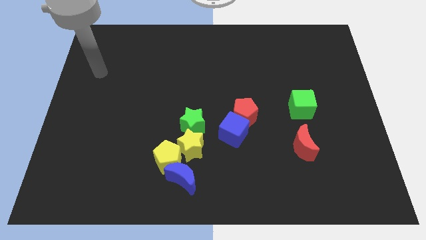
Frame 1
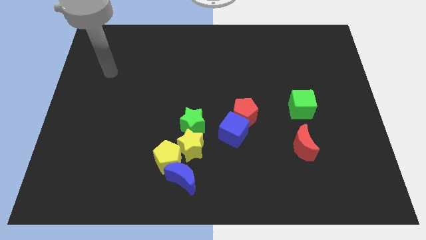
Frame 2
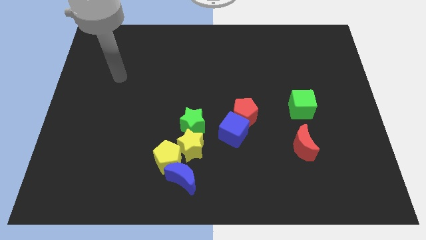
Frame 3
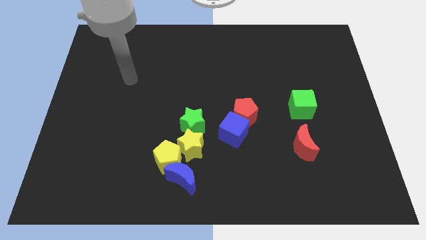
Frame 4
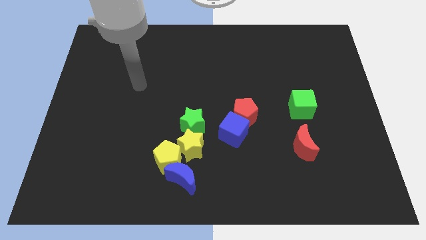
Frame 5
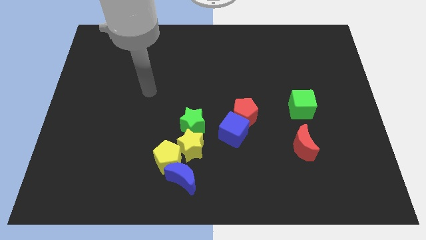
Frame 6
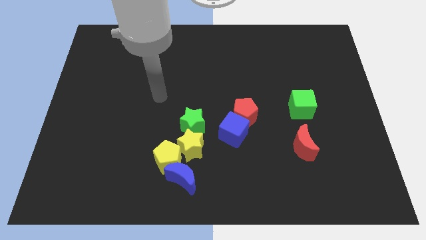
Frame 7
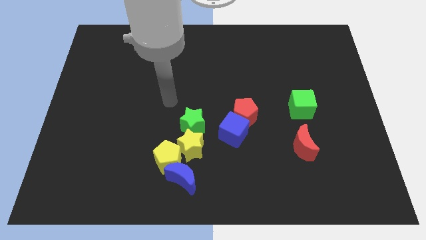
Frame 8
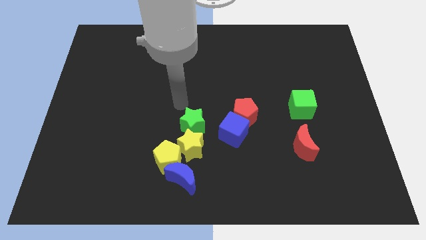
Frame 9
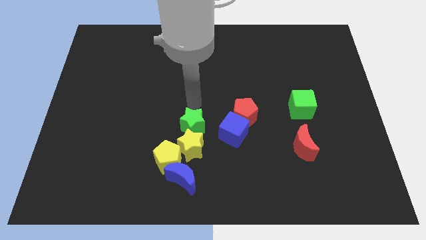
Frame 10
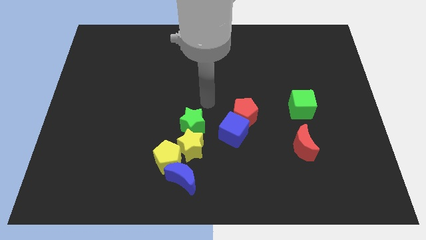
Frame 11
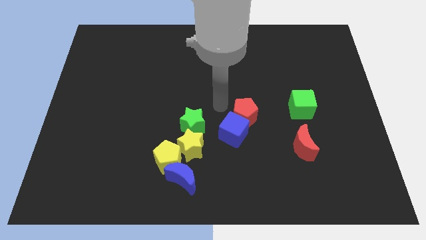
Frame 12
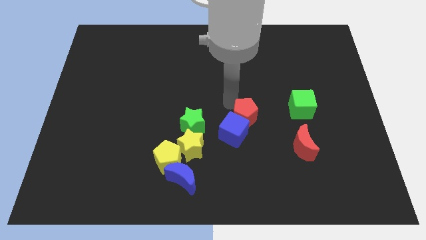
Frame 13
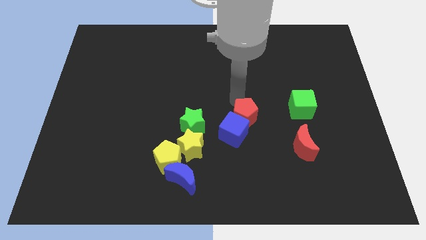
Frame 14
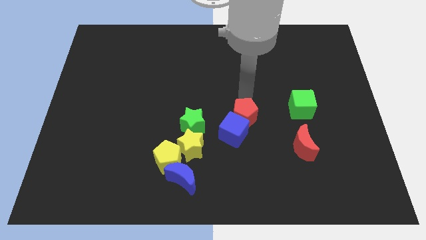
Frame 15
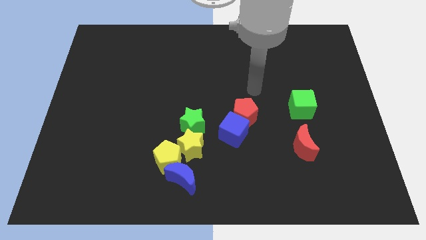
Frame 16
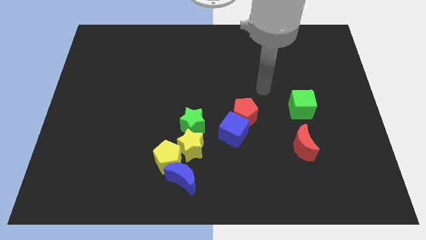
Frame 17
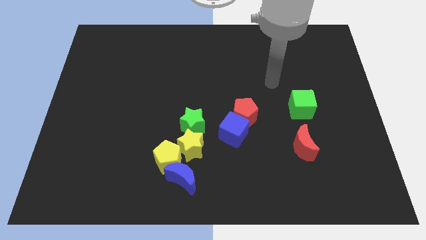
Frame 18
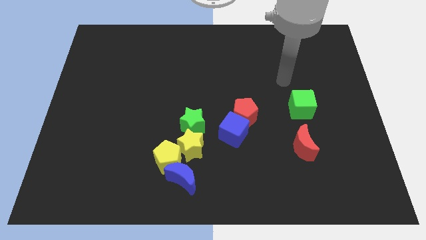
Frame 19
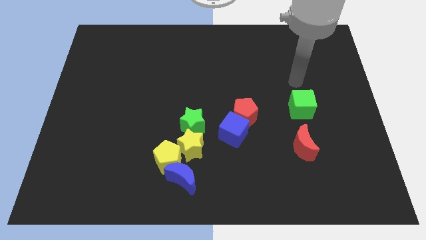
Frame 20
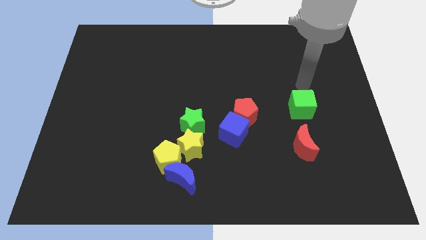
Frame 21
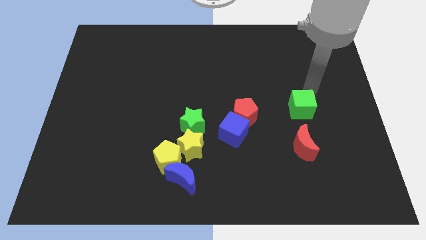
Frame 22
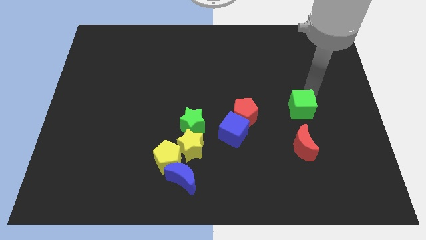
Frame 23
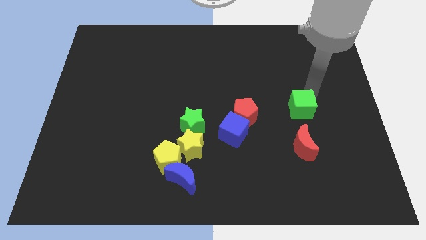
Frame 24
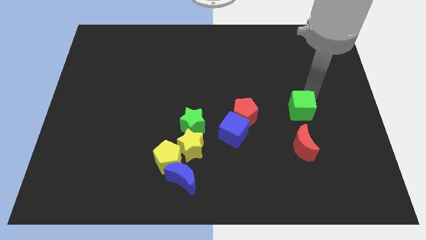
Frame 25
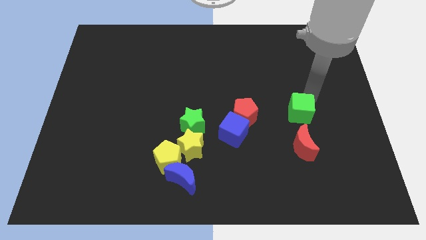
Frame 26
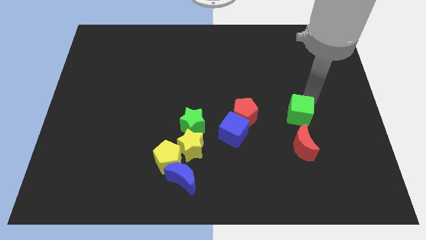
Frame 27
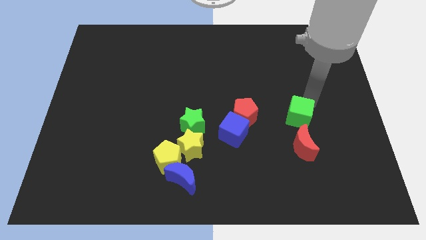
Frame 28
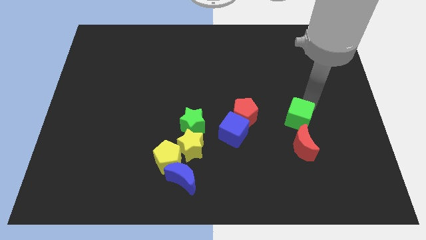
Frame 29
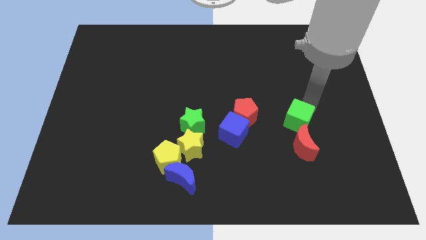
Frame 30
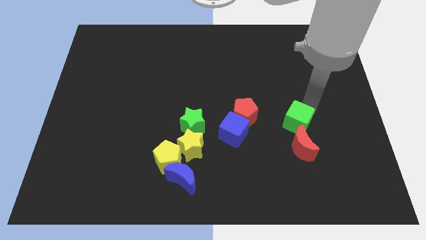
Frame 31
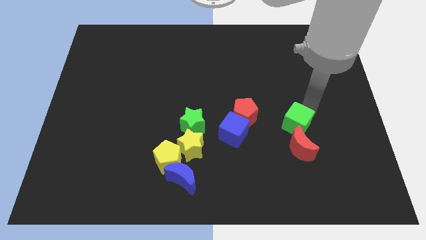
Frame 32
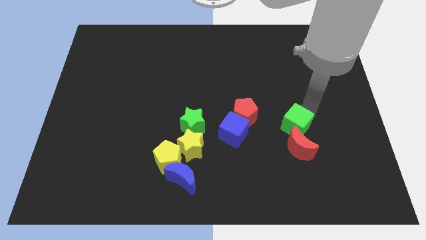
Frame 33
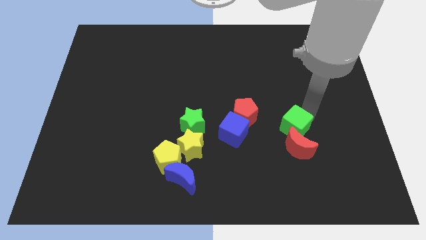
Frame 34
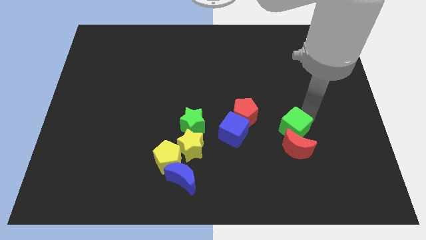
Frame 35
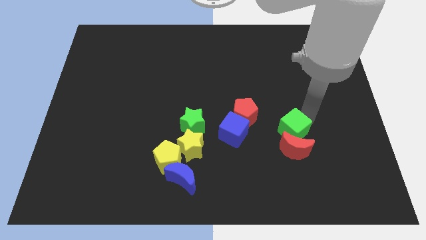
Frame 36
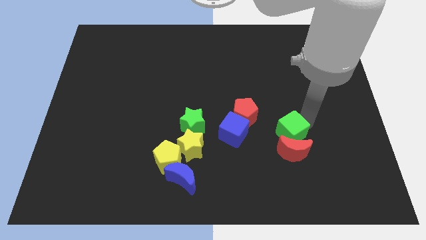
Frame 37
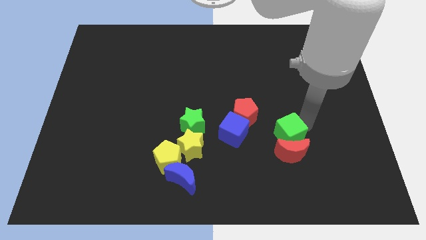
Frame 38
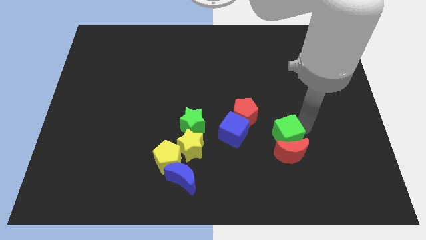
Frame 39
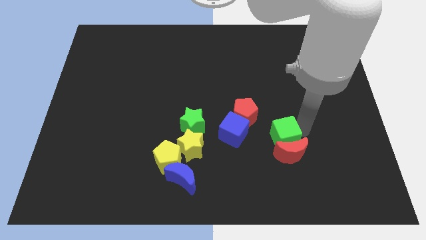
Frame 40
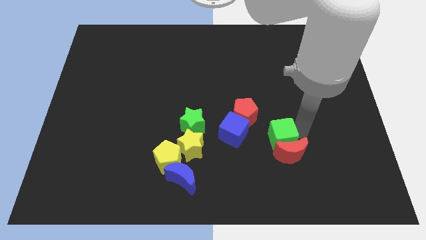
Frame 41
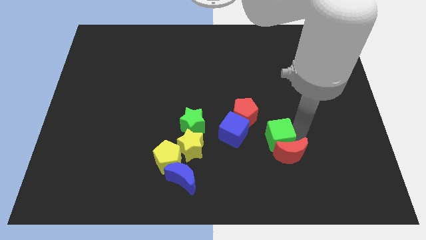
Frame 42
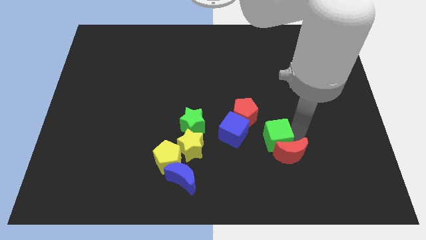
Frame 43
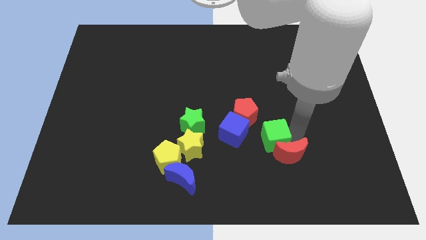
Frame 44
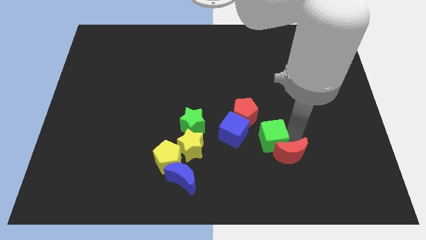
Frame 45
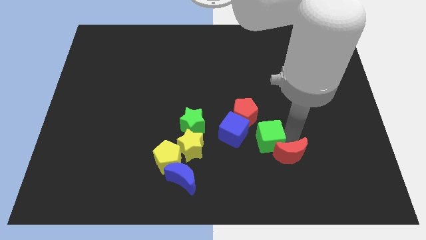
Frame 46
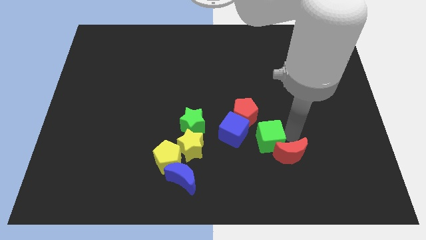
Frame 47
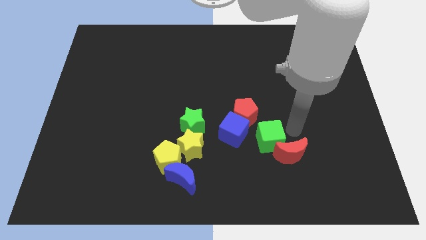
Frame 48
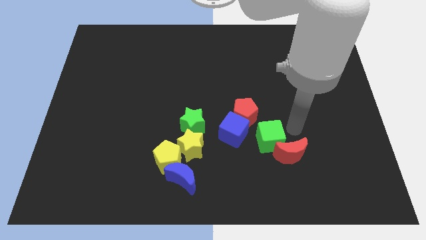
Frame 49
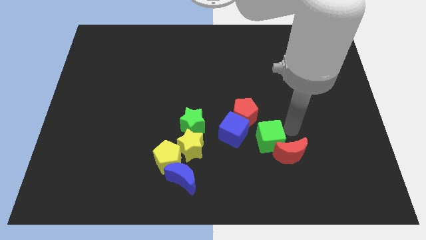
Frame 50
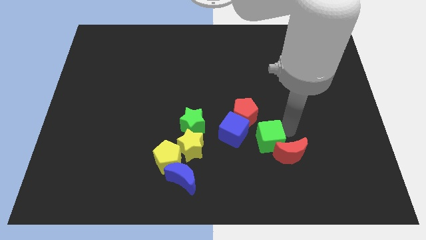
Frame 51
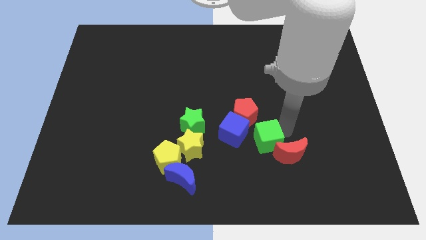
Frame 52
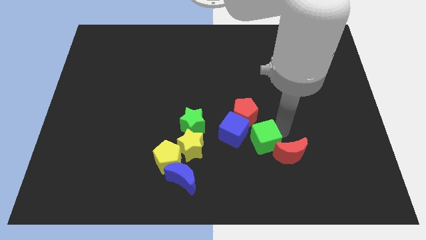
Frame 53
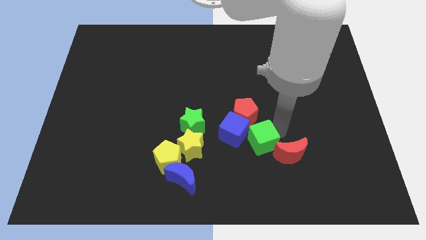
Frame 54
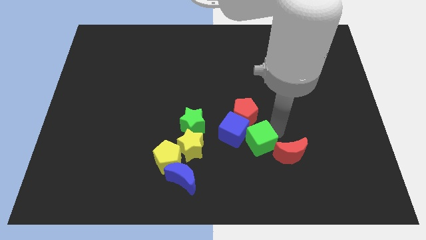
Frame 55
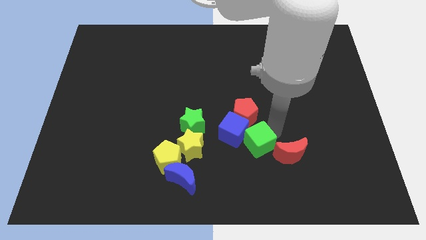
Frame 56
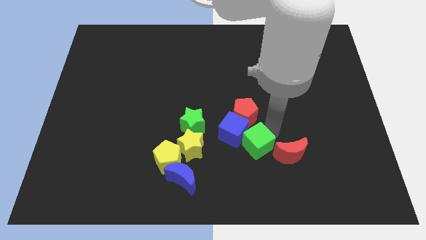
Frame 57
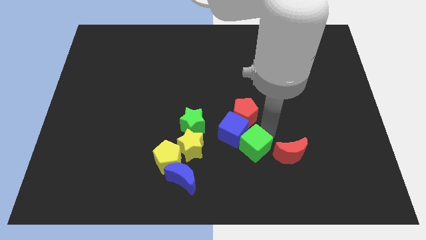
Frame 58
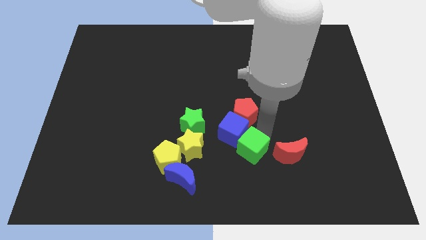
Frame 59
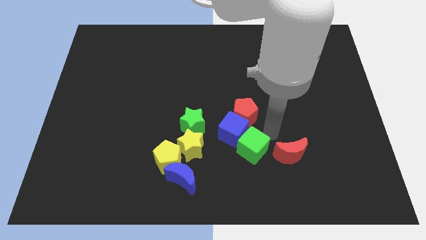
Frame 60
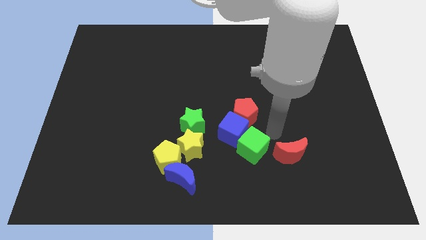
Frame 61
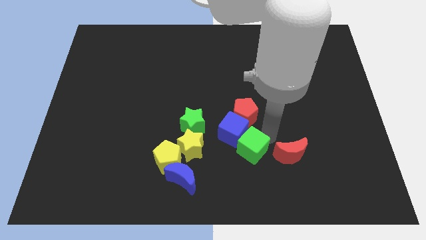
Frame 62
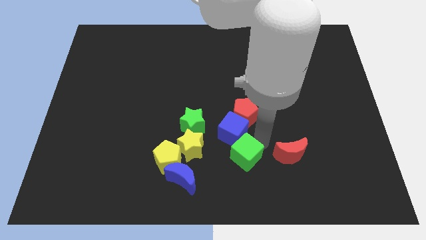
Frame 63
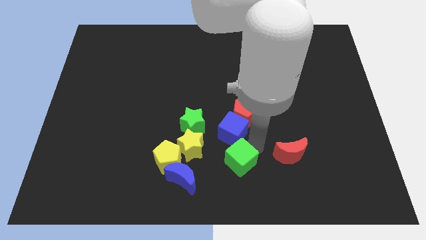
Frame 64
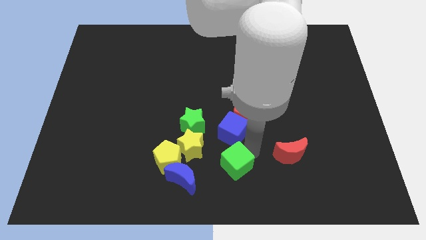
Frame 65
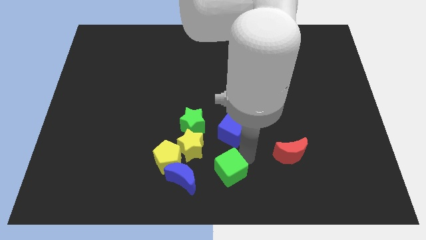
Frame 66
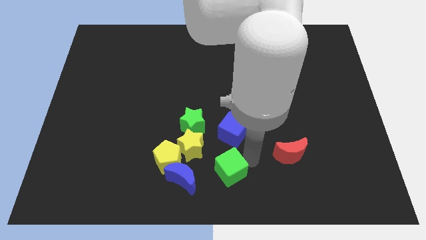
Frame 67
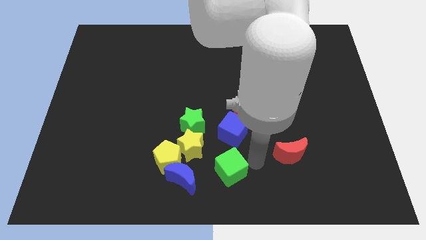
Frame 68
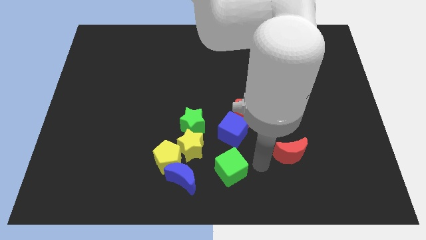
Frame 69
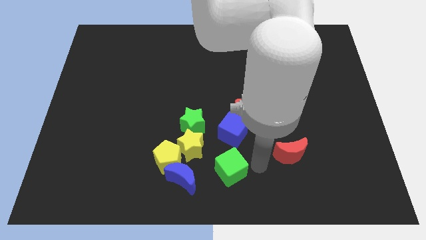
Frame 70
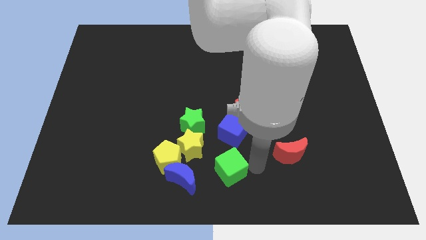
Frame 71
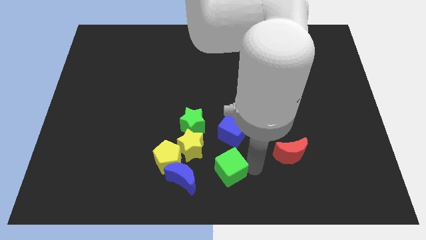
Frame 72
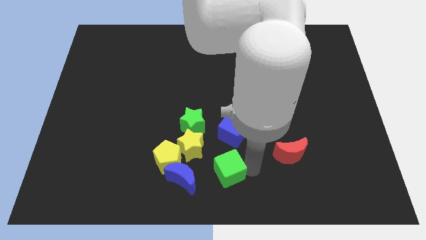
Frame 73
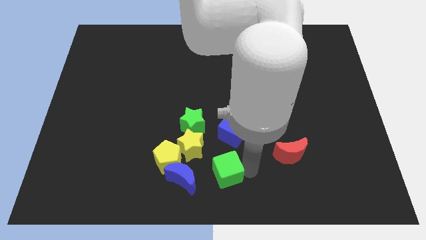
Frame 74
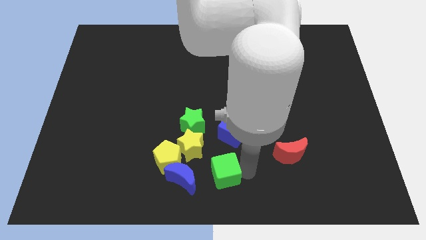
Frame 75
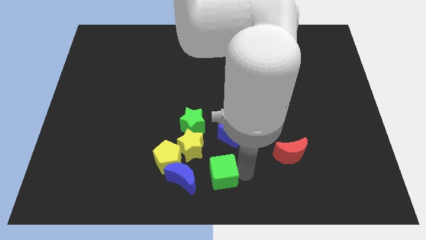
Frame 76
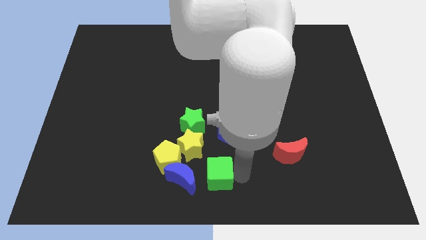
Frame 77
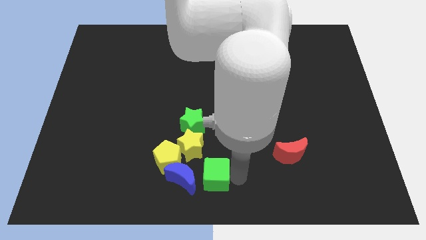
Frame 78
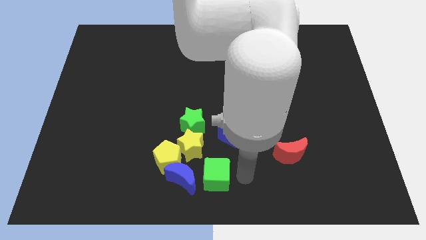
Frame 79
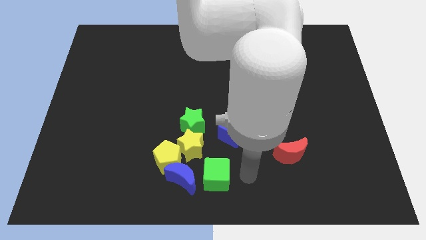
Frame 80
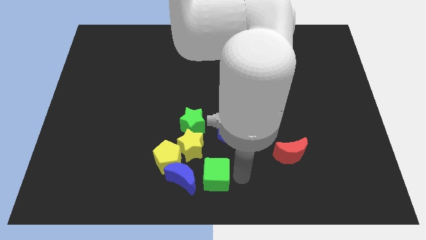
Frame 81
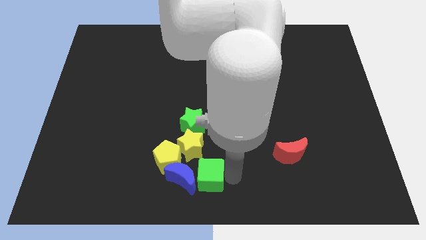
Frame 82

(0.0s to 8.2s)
put the green cube to the blue moon
